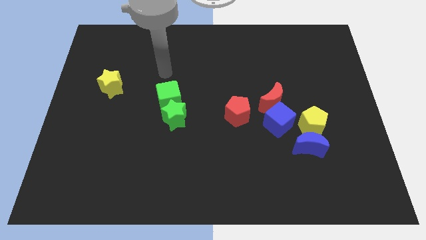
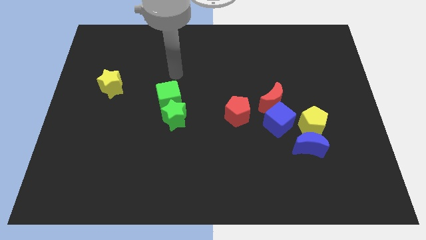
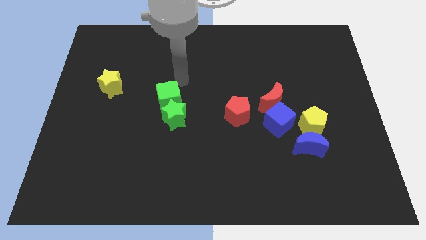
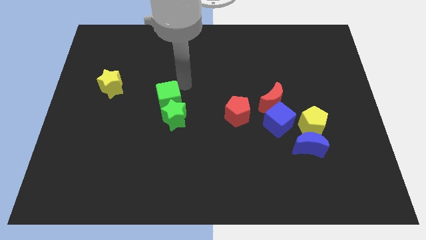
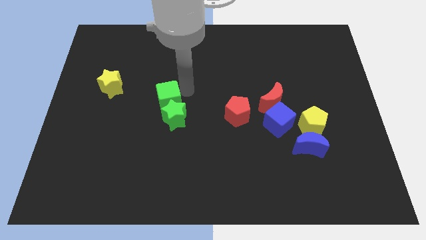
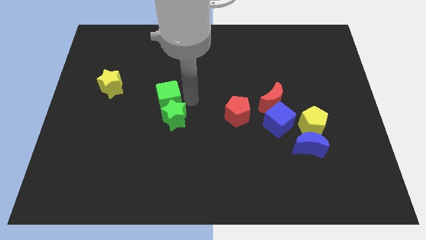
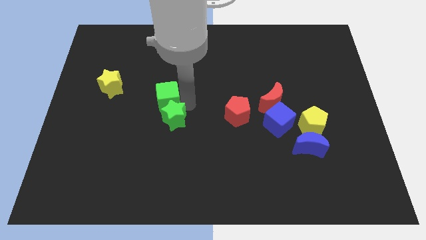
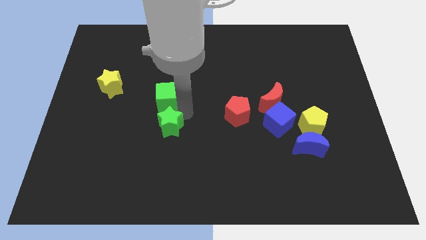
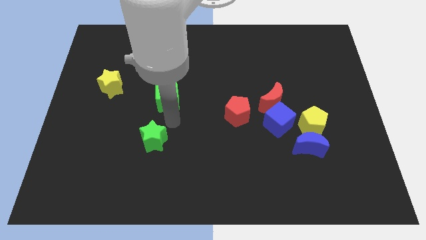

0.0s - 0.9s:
move the green cube away from the green star

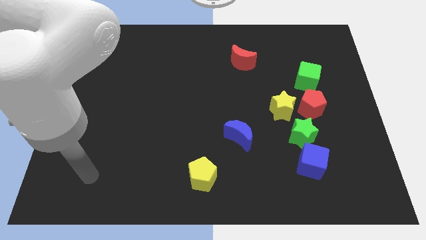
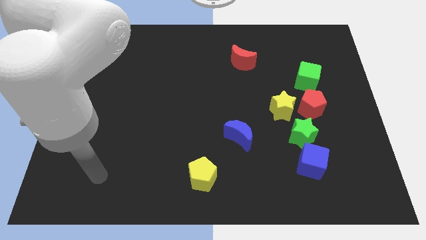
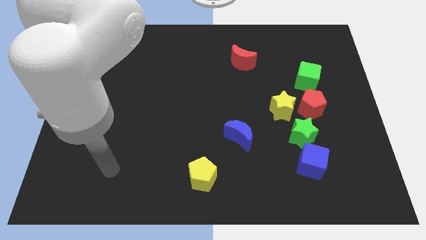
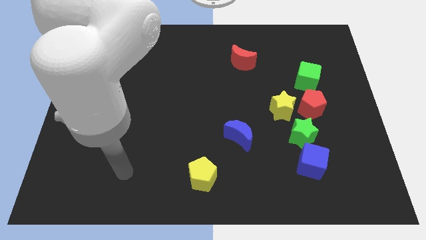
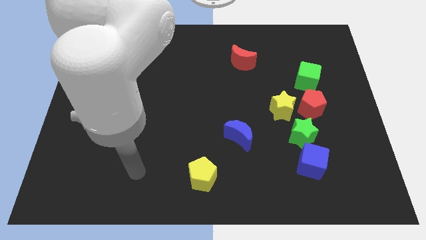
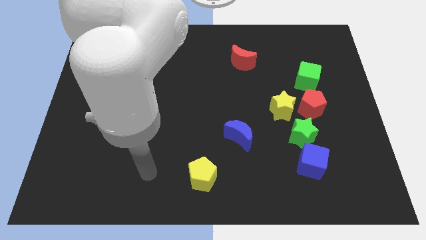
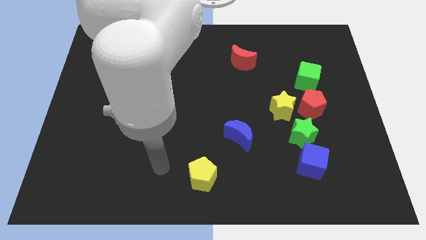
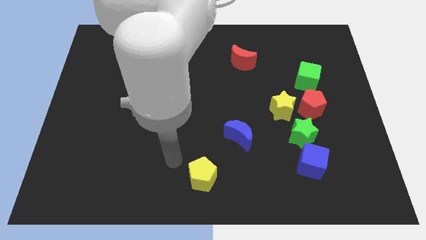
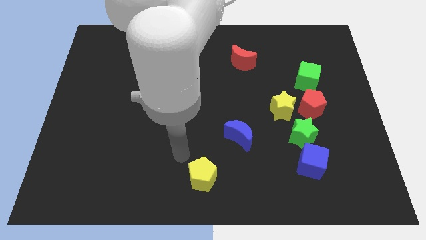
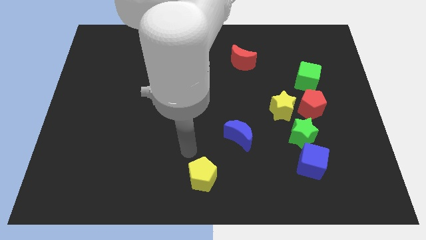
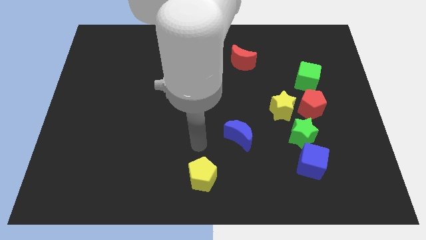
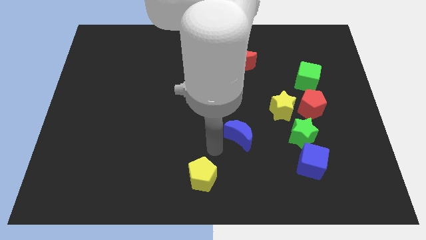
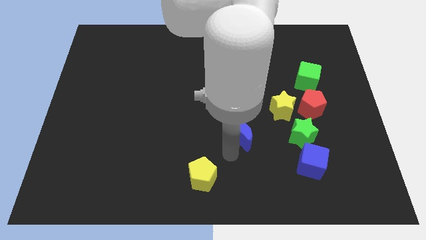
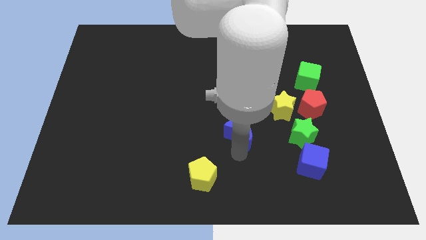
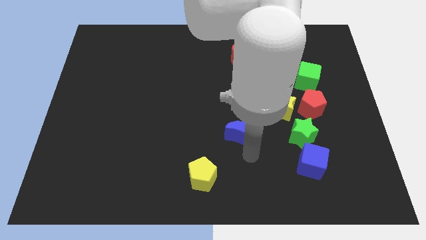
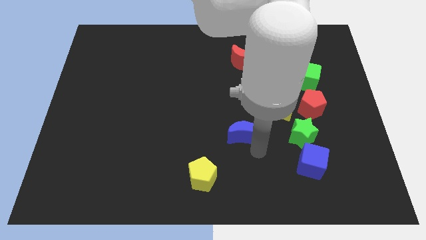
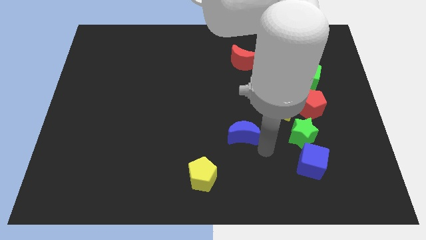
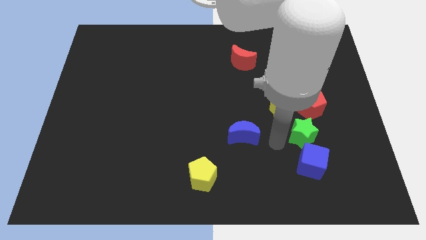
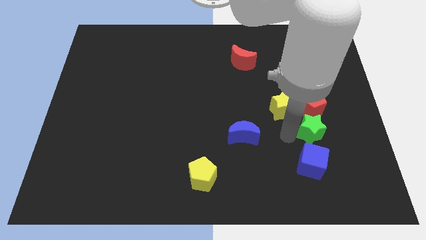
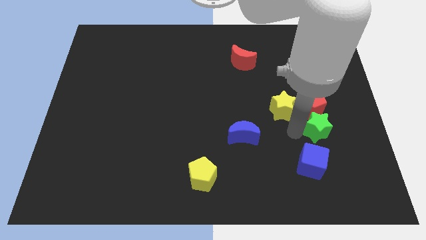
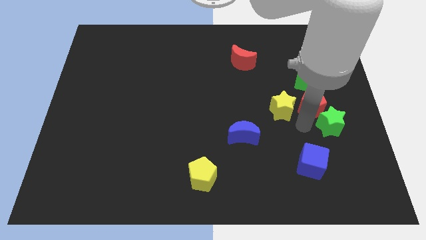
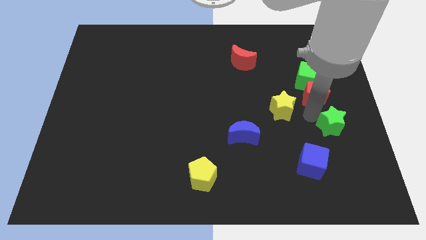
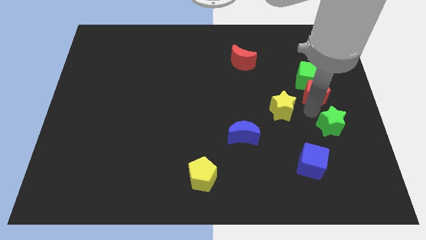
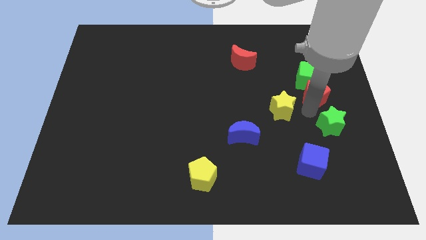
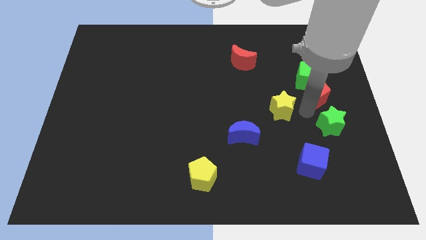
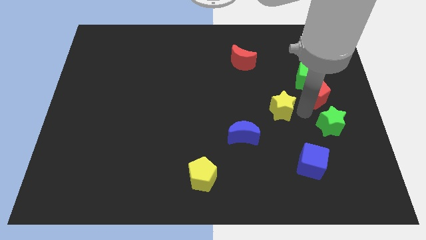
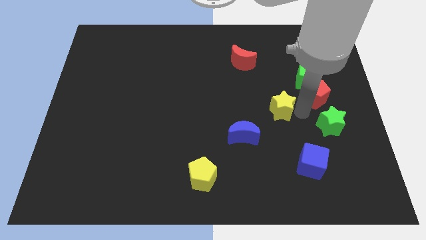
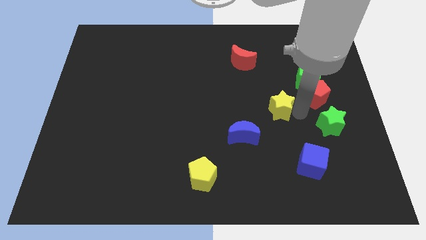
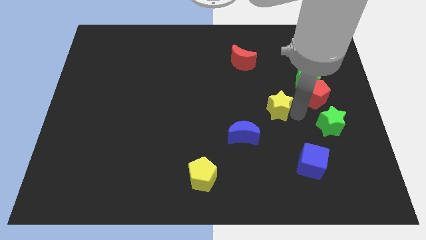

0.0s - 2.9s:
move the yellow star away from the red pentagon and green star

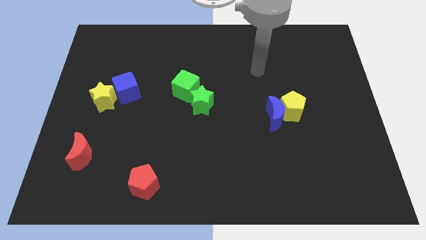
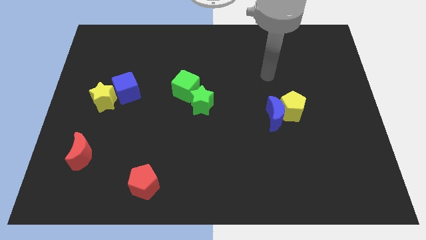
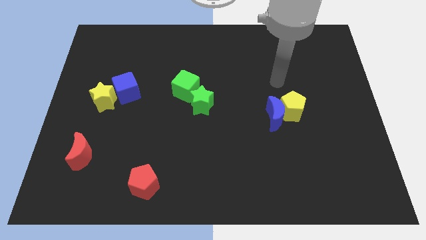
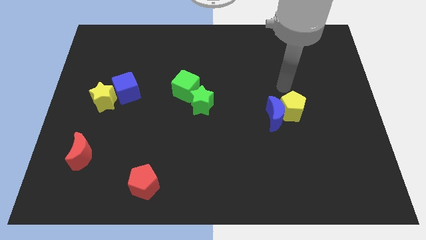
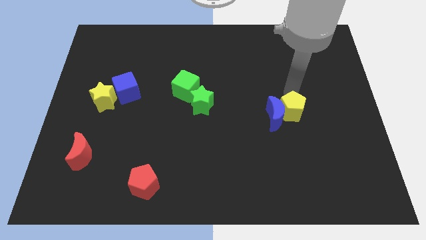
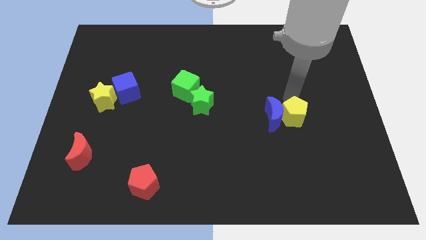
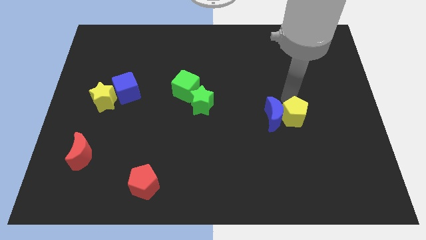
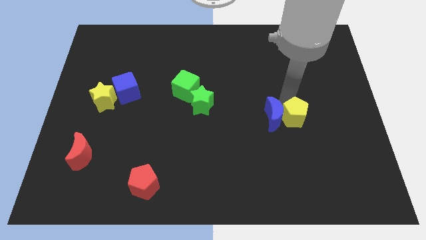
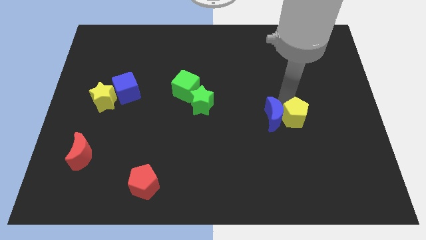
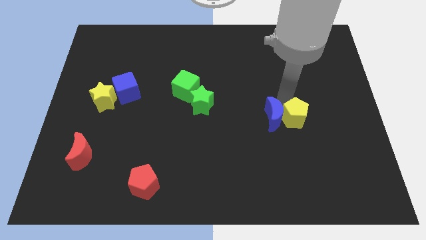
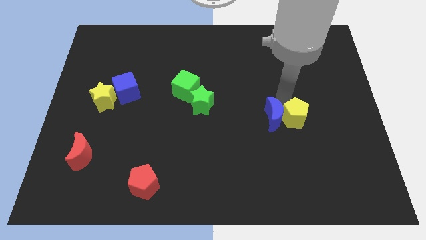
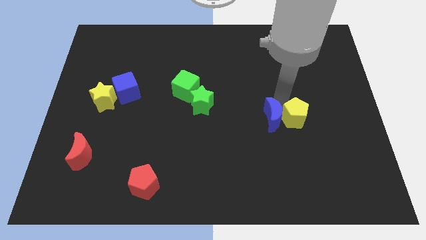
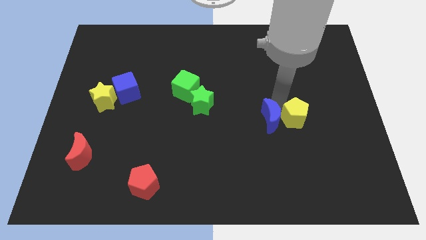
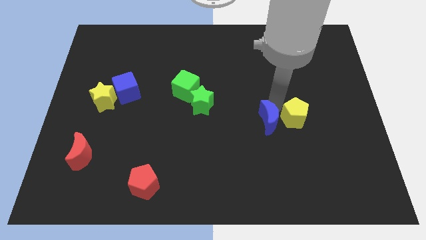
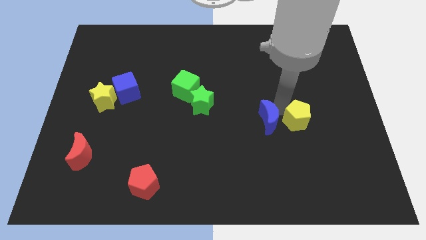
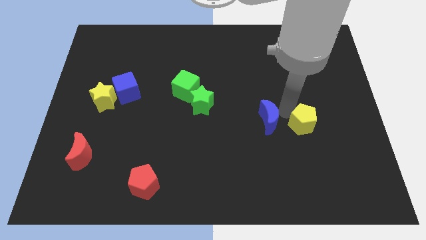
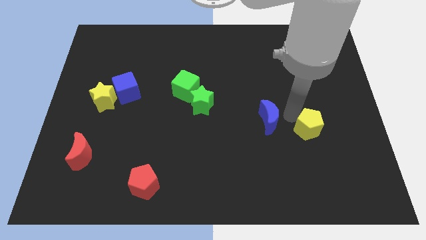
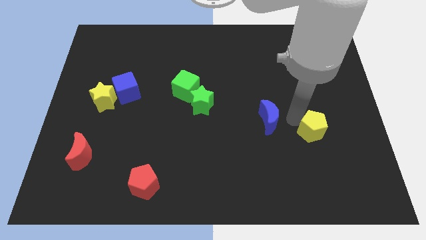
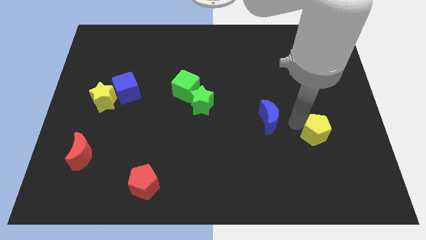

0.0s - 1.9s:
pull the blue moon apart from the yellow pentagon

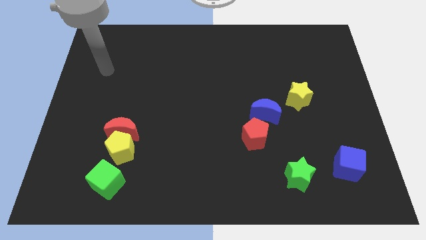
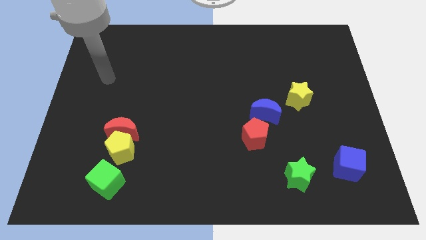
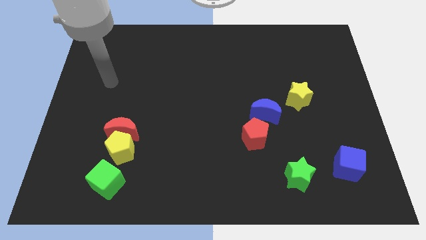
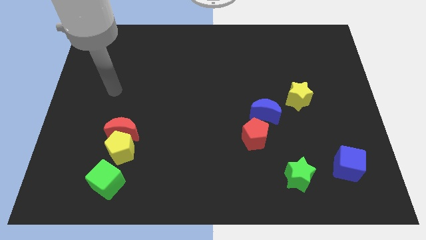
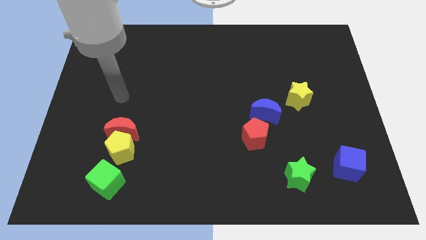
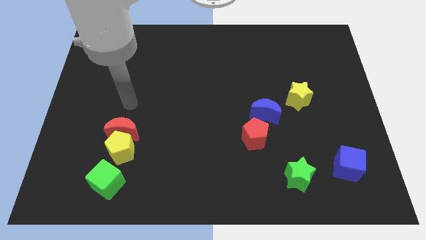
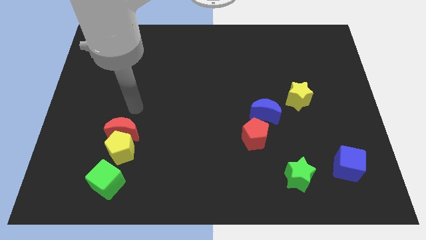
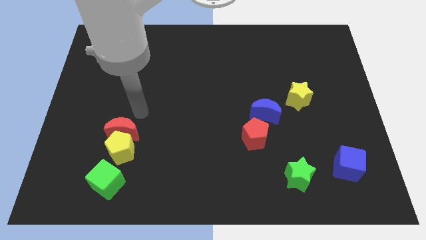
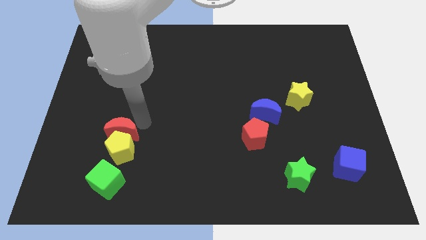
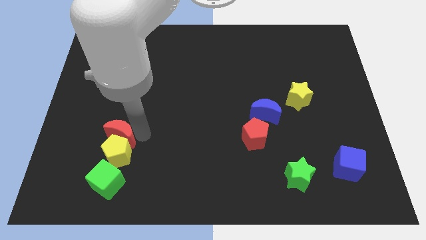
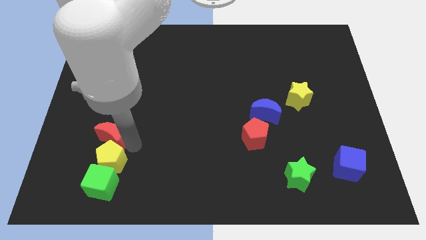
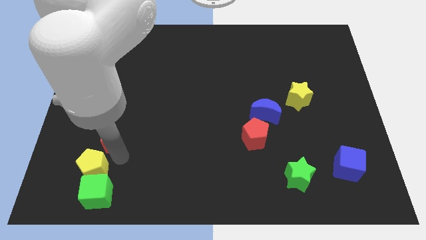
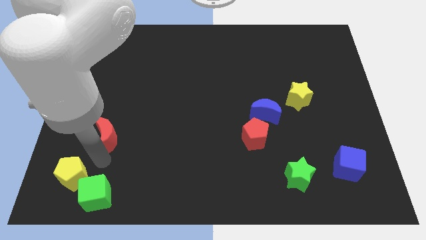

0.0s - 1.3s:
separate the red moon from the yellow pentagon

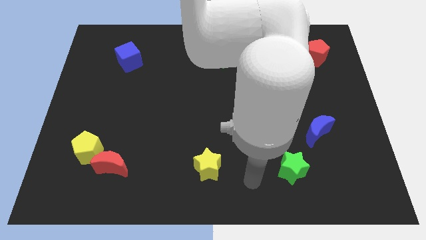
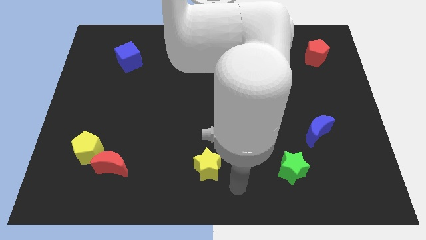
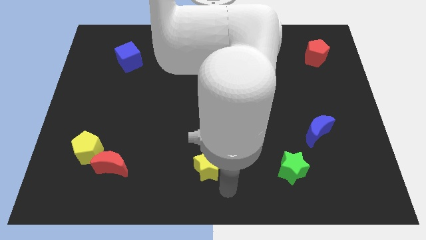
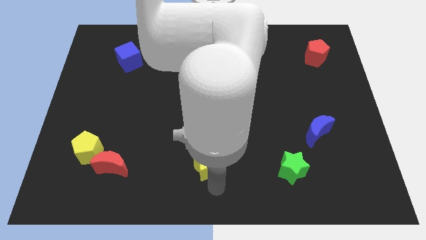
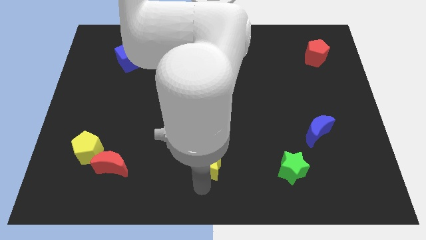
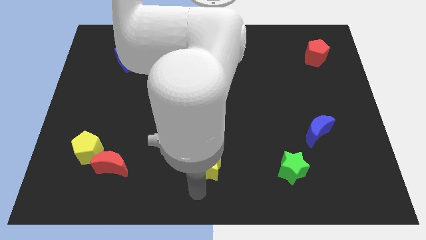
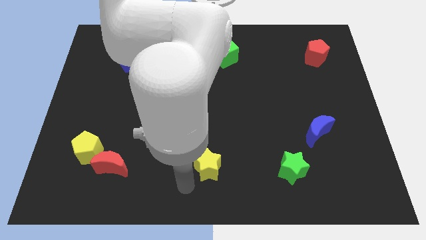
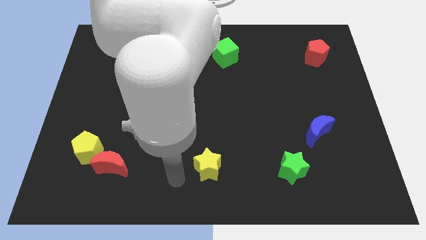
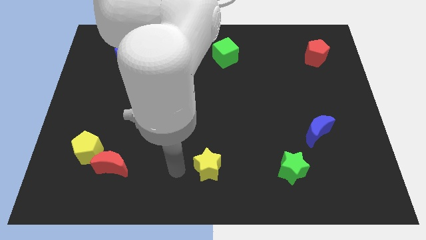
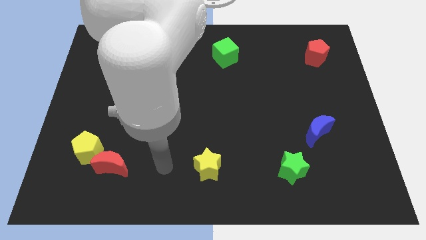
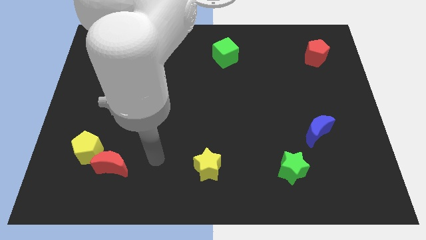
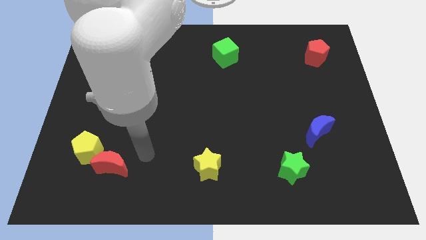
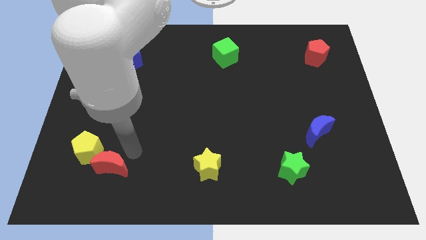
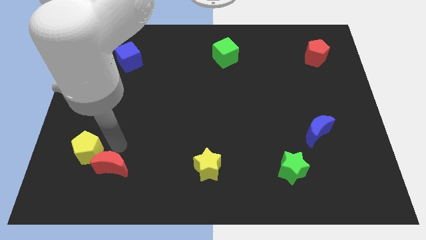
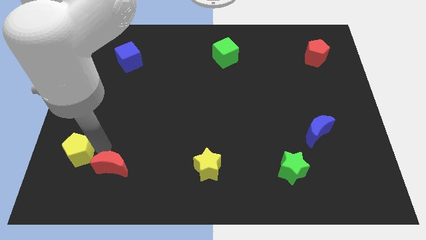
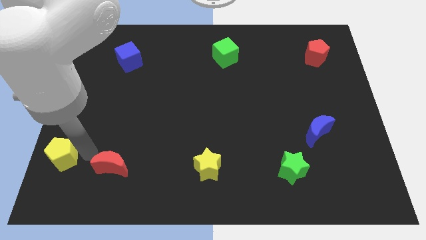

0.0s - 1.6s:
move the red moon away from the yellow pentagon

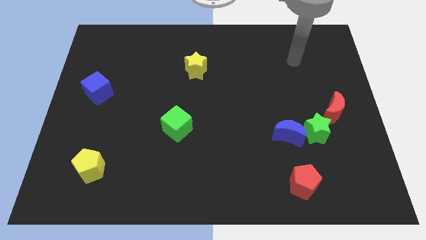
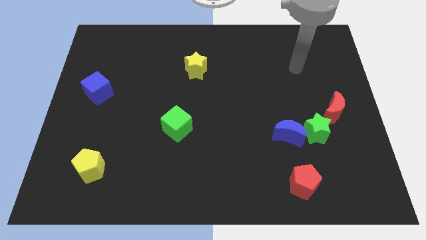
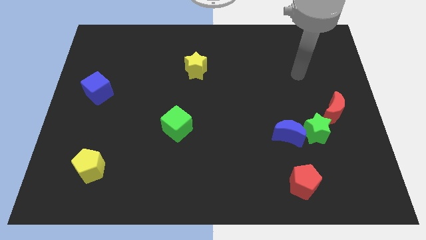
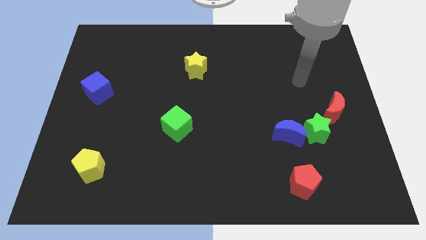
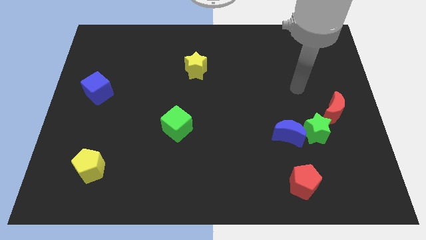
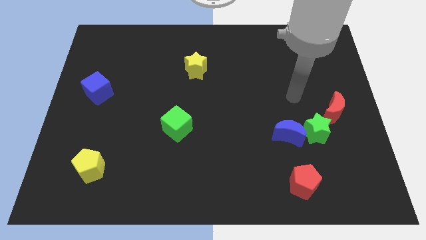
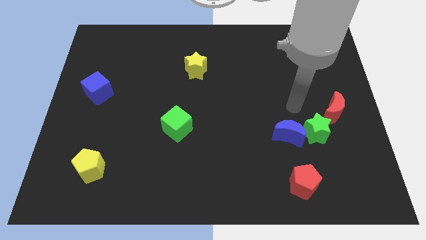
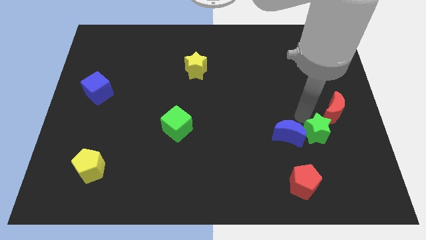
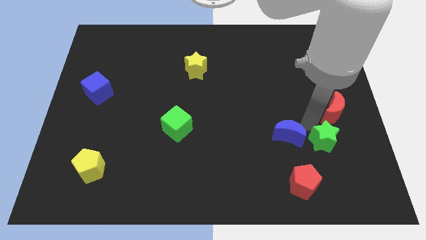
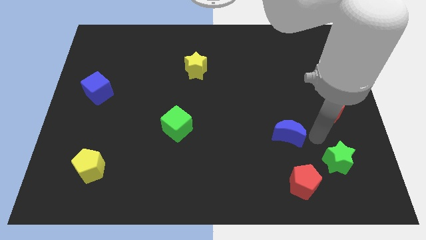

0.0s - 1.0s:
separate the blue moon from the green star
